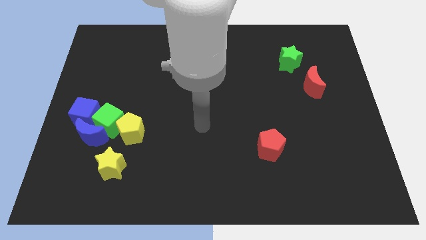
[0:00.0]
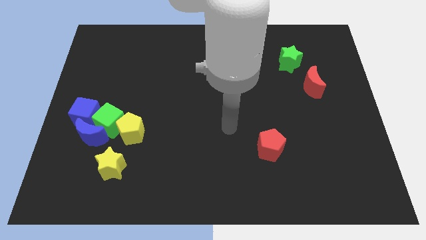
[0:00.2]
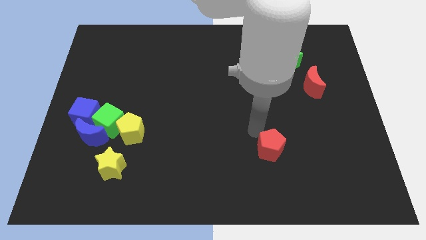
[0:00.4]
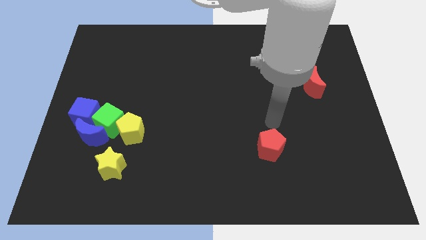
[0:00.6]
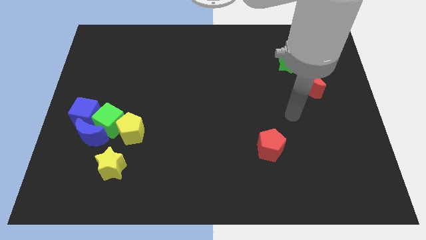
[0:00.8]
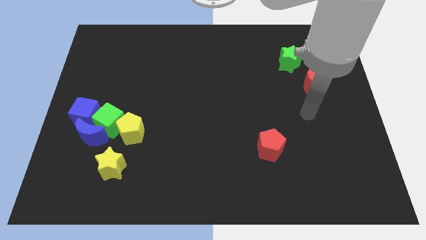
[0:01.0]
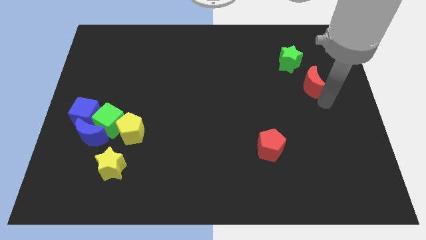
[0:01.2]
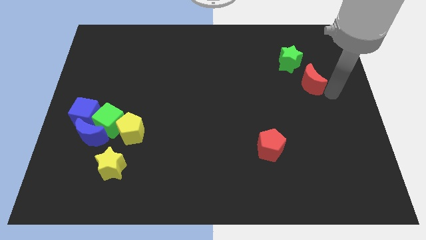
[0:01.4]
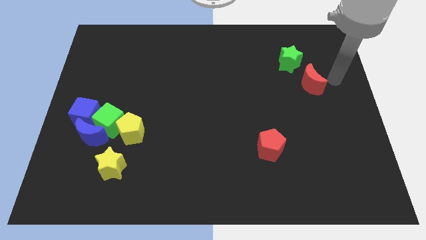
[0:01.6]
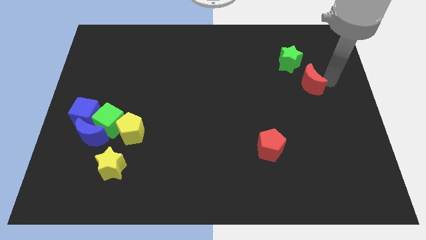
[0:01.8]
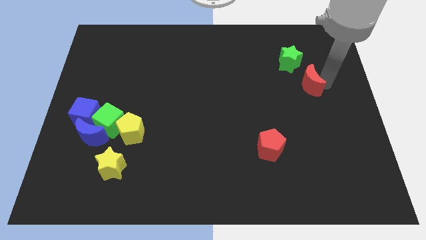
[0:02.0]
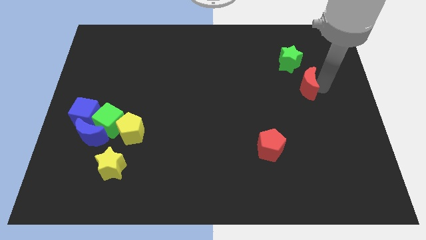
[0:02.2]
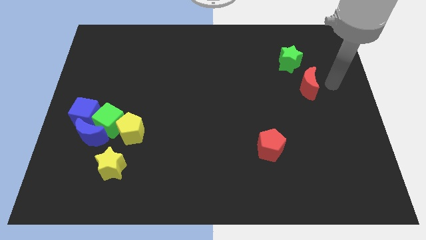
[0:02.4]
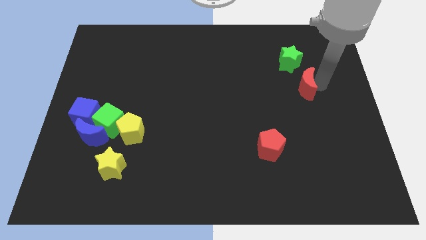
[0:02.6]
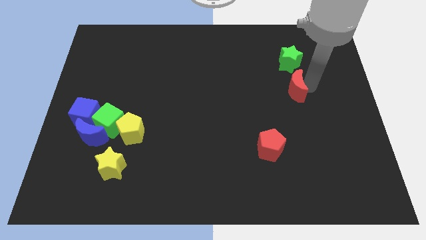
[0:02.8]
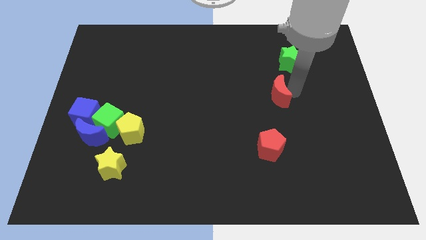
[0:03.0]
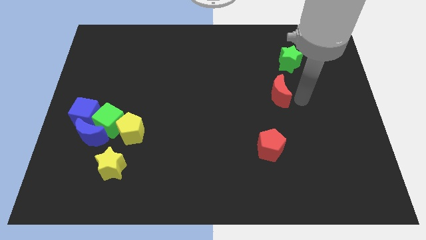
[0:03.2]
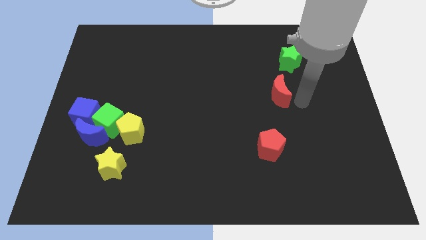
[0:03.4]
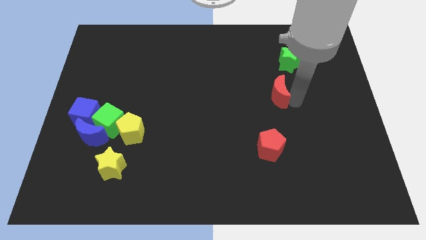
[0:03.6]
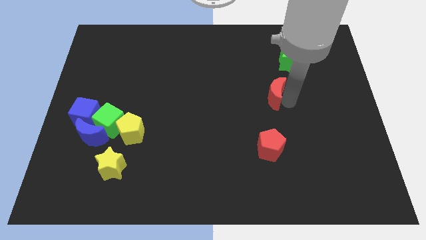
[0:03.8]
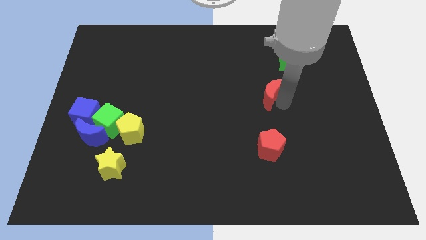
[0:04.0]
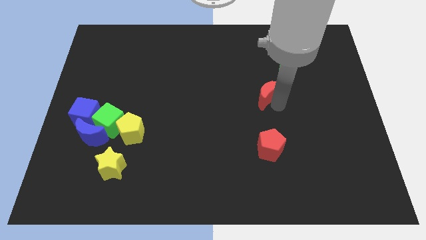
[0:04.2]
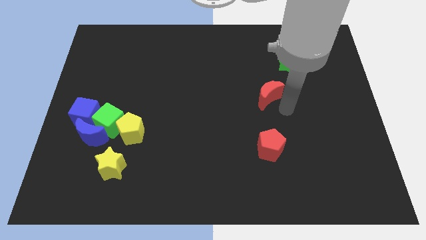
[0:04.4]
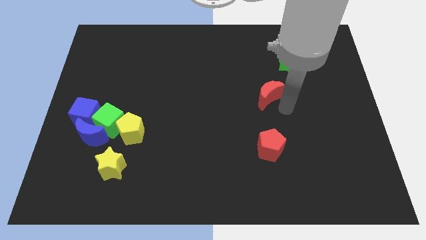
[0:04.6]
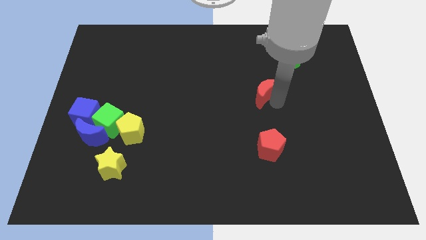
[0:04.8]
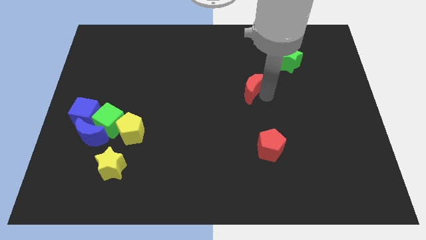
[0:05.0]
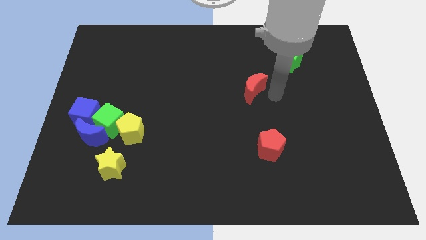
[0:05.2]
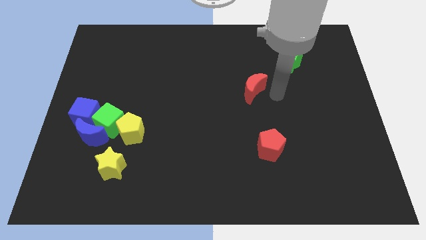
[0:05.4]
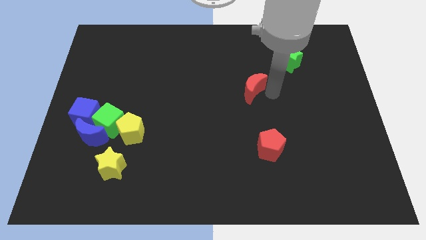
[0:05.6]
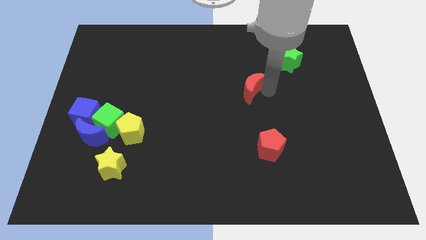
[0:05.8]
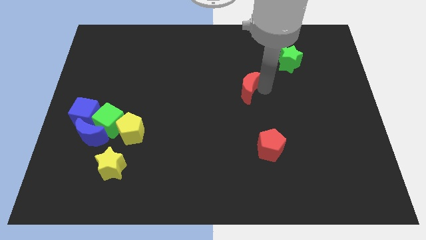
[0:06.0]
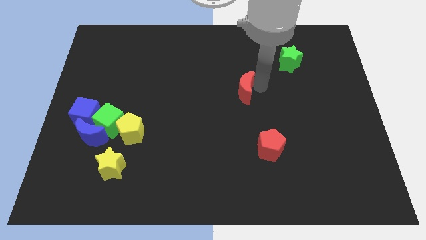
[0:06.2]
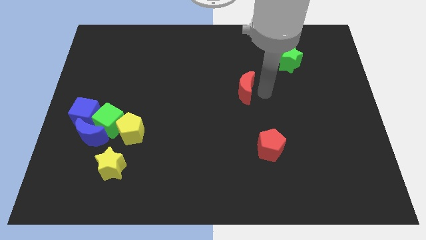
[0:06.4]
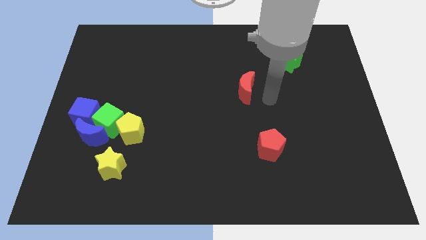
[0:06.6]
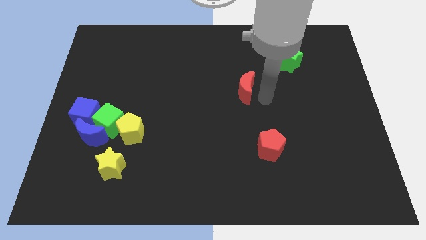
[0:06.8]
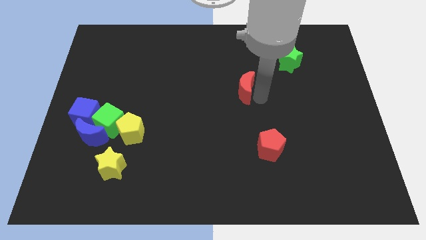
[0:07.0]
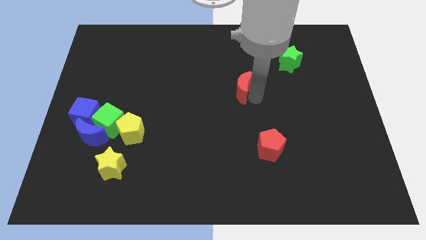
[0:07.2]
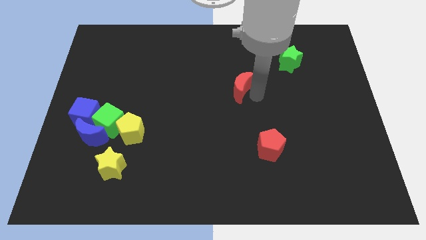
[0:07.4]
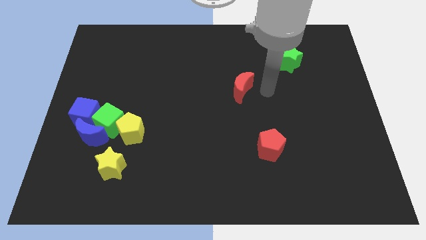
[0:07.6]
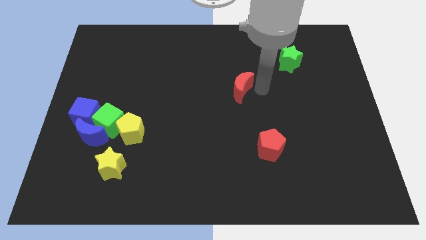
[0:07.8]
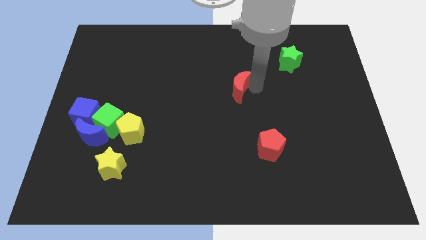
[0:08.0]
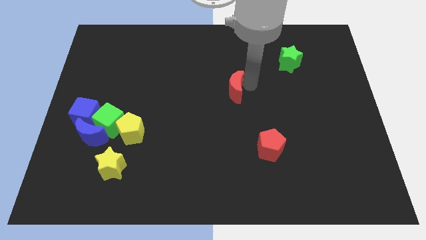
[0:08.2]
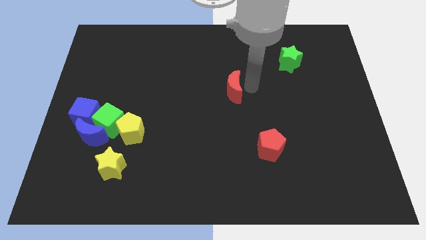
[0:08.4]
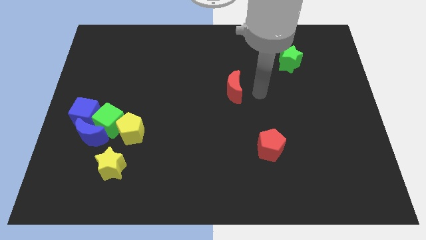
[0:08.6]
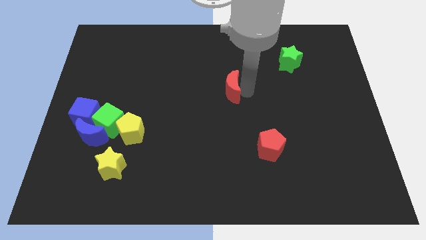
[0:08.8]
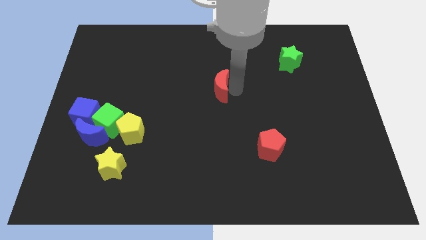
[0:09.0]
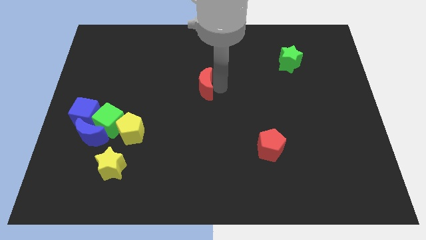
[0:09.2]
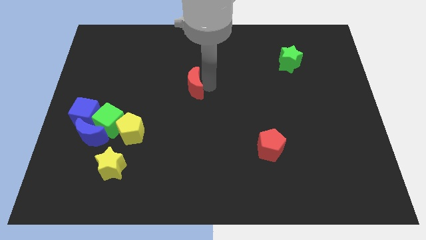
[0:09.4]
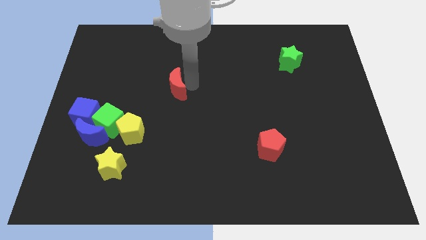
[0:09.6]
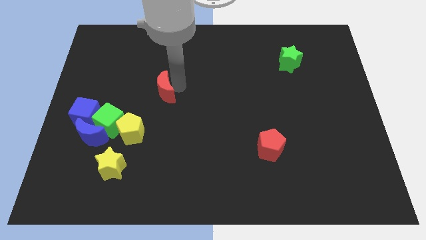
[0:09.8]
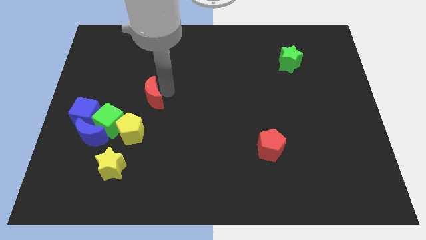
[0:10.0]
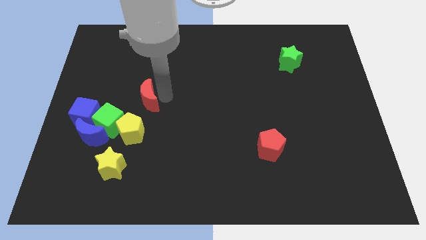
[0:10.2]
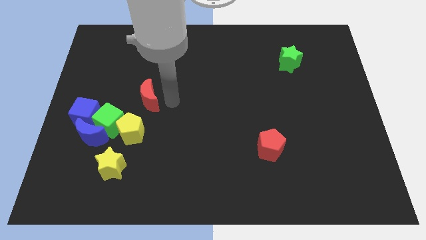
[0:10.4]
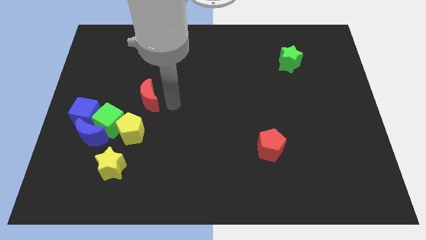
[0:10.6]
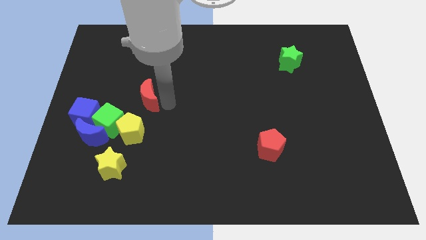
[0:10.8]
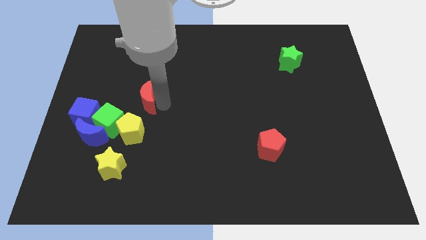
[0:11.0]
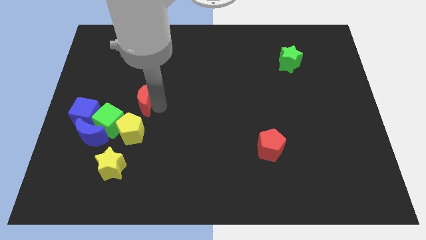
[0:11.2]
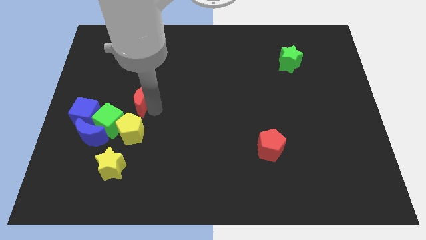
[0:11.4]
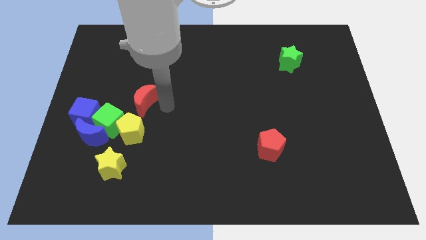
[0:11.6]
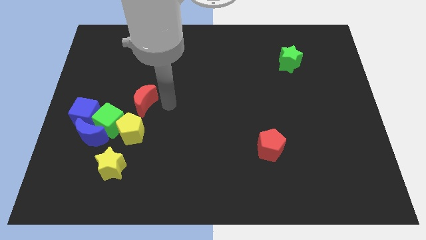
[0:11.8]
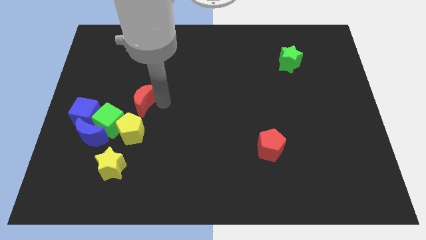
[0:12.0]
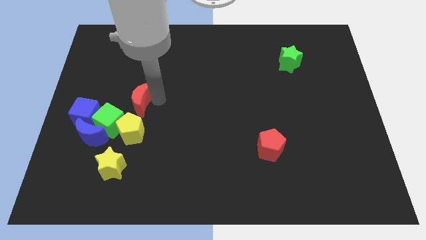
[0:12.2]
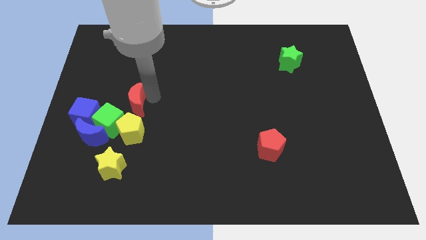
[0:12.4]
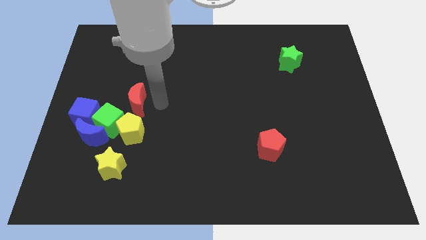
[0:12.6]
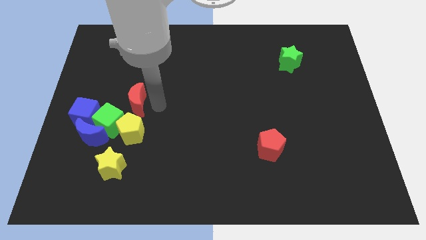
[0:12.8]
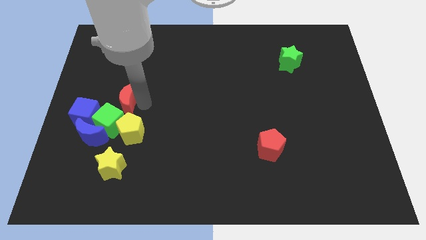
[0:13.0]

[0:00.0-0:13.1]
push the red moon diagonally up and to the right of the blue cube
